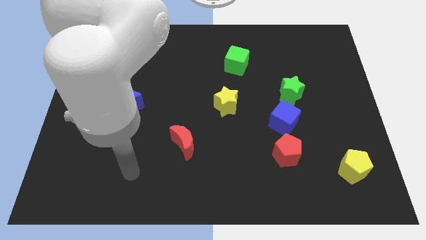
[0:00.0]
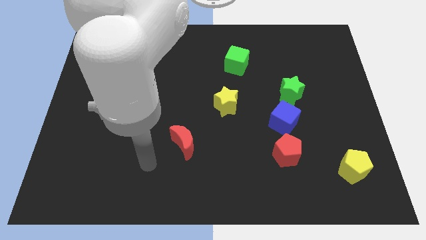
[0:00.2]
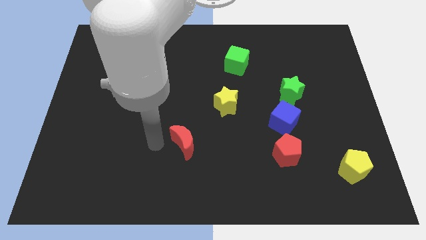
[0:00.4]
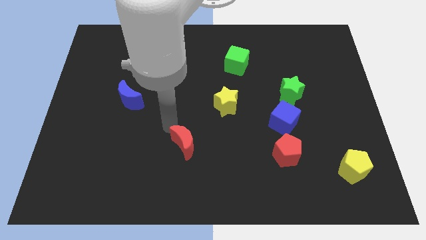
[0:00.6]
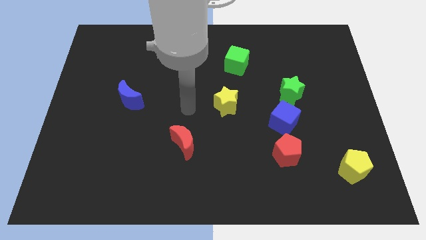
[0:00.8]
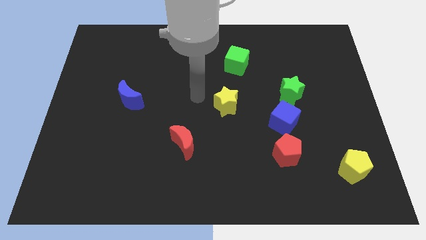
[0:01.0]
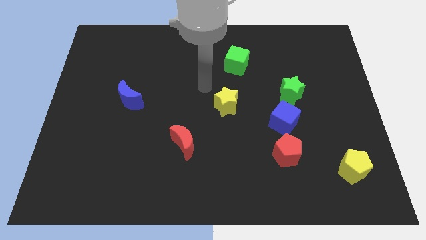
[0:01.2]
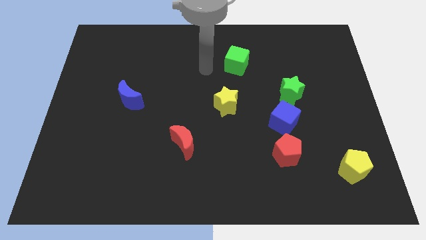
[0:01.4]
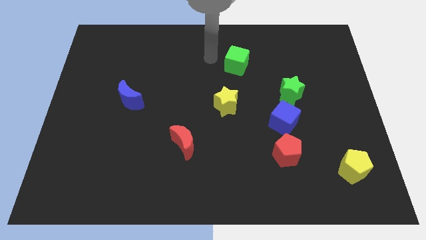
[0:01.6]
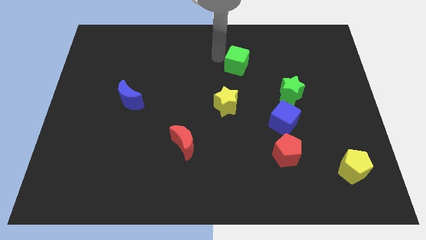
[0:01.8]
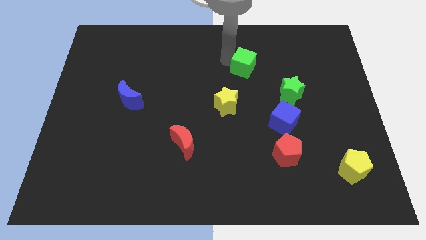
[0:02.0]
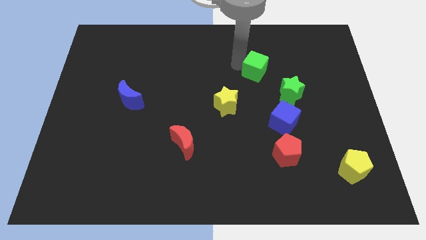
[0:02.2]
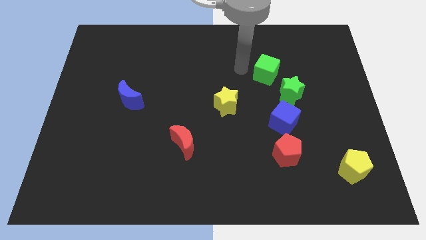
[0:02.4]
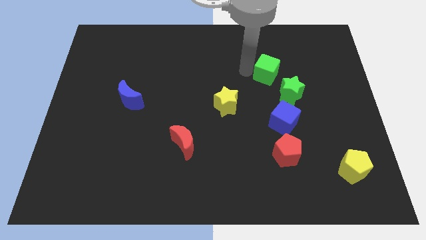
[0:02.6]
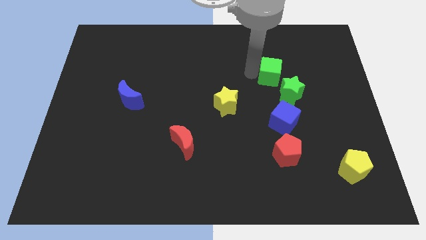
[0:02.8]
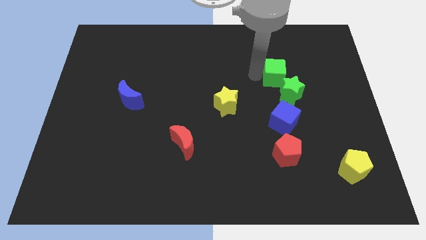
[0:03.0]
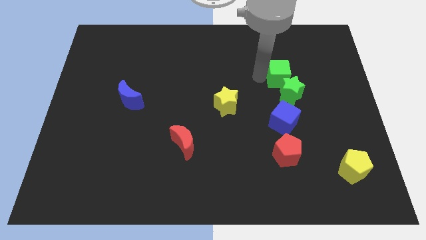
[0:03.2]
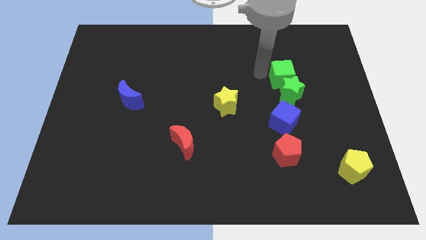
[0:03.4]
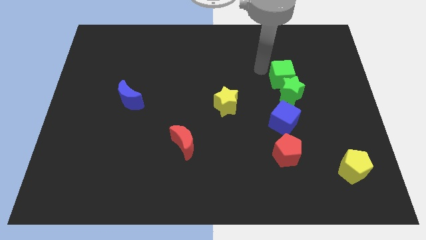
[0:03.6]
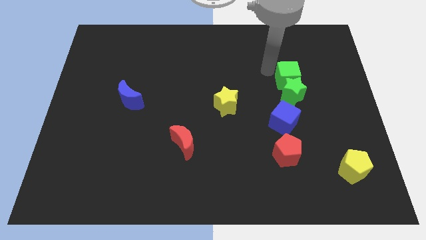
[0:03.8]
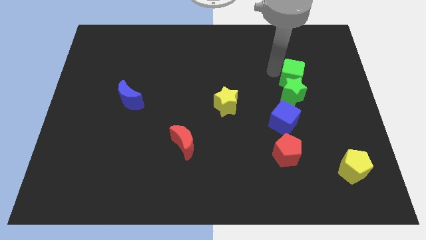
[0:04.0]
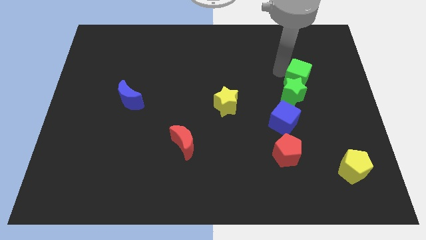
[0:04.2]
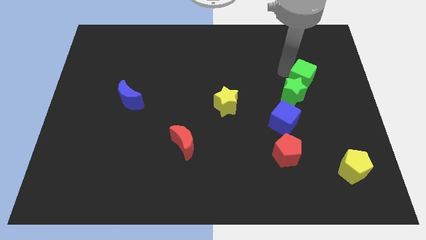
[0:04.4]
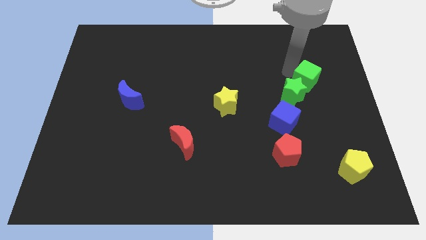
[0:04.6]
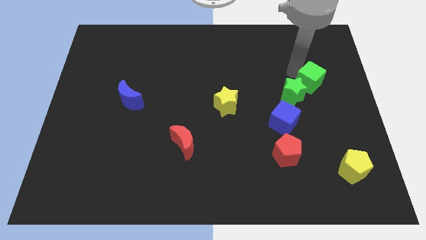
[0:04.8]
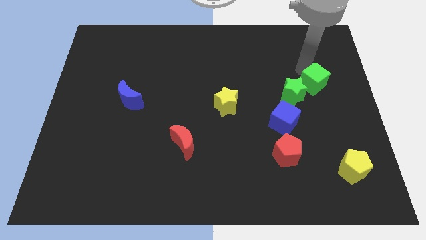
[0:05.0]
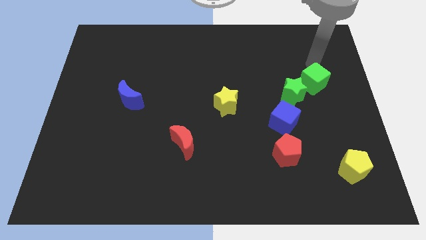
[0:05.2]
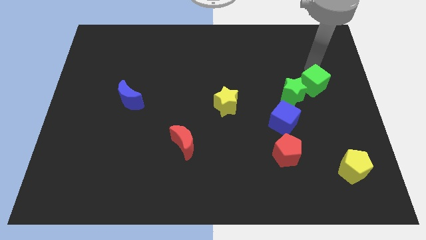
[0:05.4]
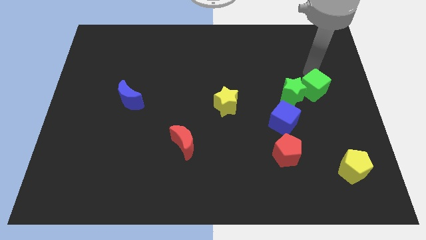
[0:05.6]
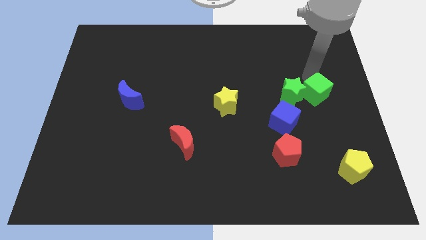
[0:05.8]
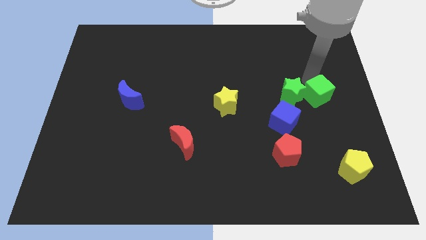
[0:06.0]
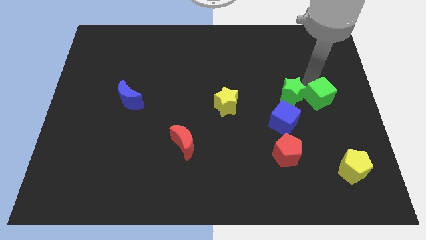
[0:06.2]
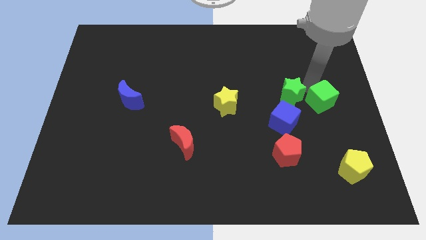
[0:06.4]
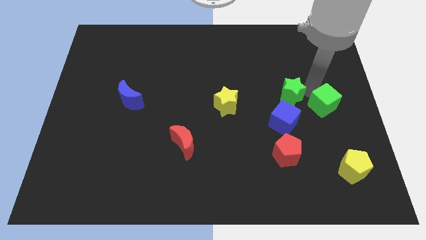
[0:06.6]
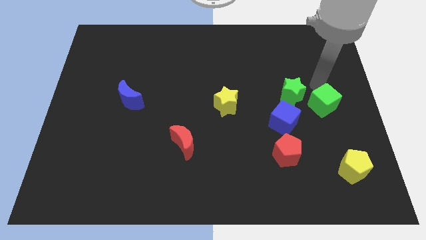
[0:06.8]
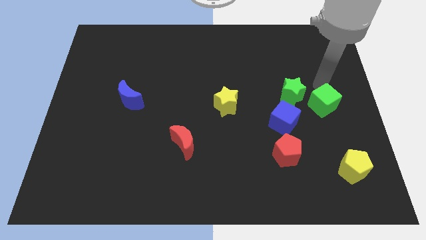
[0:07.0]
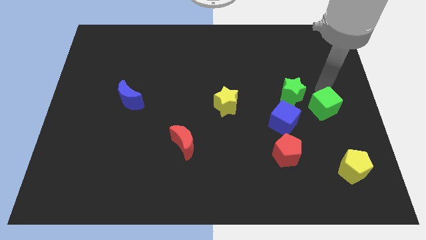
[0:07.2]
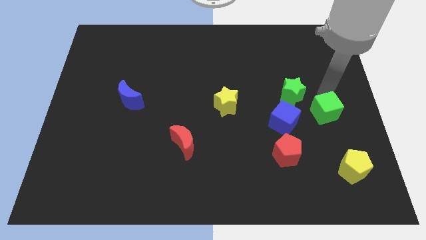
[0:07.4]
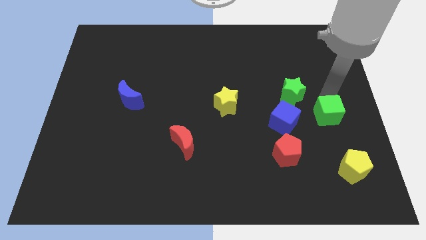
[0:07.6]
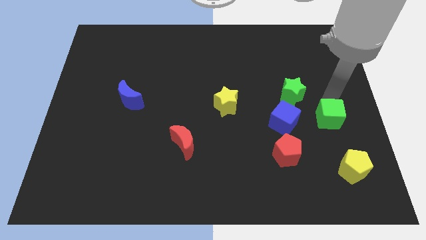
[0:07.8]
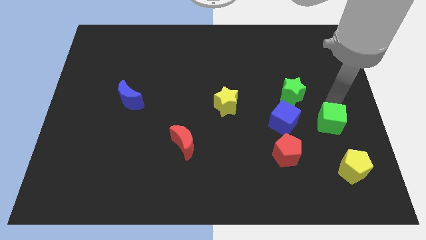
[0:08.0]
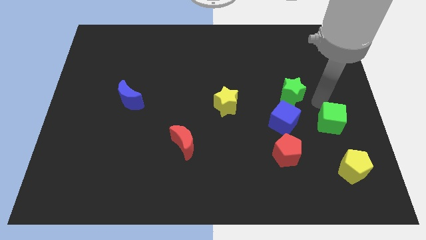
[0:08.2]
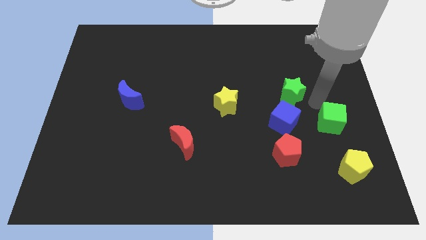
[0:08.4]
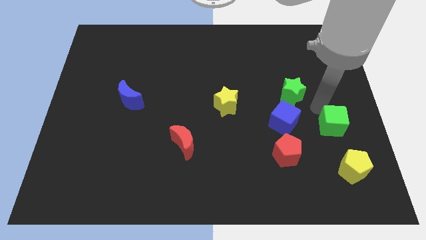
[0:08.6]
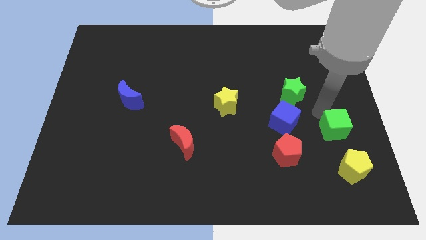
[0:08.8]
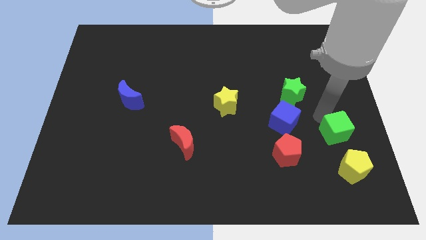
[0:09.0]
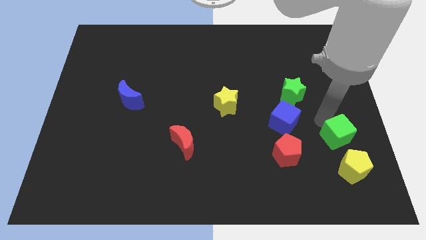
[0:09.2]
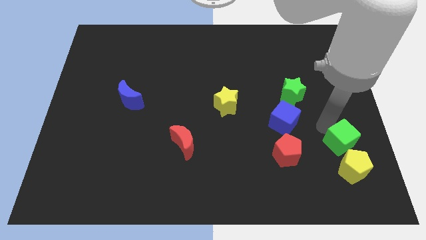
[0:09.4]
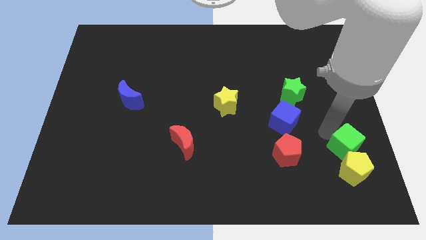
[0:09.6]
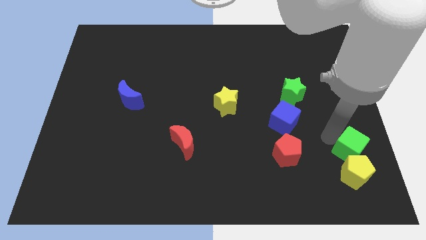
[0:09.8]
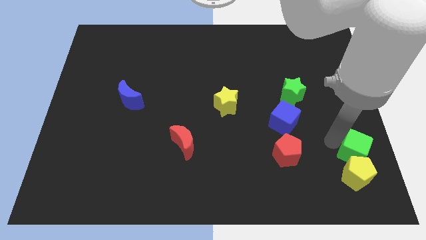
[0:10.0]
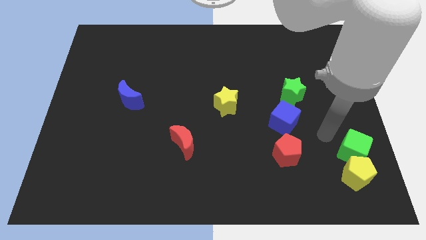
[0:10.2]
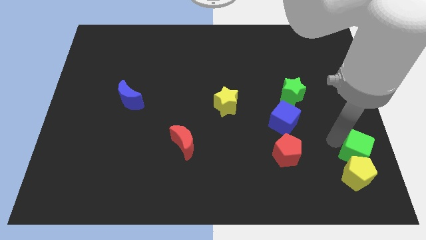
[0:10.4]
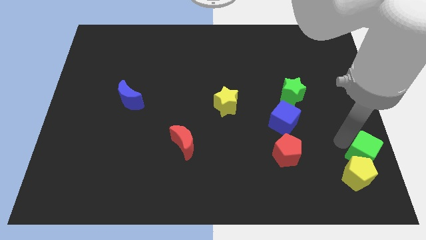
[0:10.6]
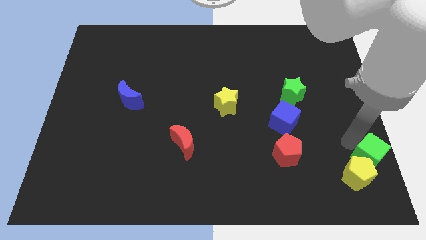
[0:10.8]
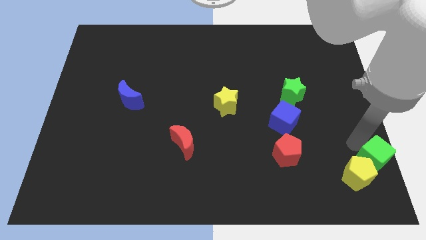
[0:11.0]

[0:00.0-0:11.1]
slide the green cube to the lower right corner

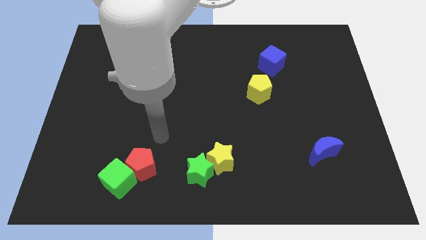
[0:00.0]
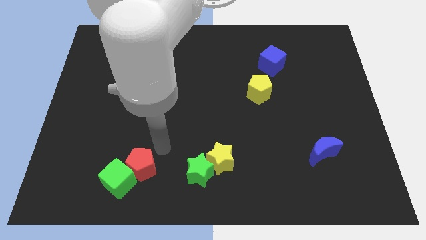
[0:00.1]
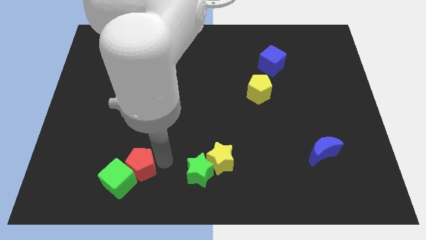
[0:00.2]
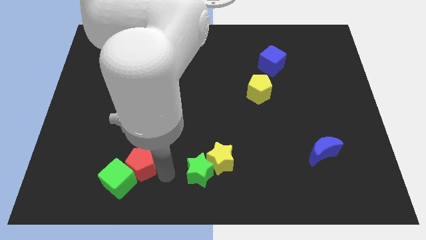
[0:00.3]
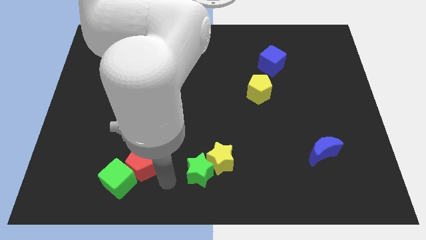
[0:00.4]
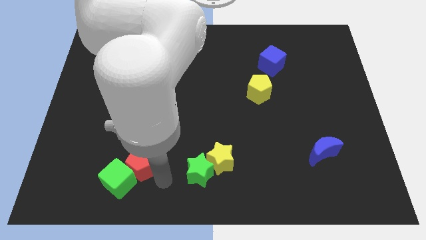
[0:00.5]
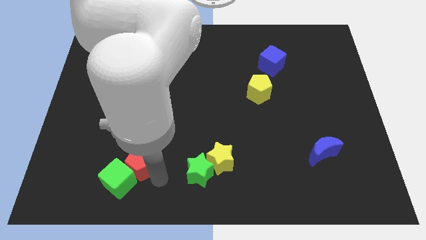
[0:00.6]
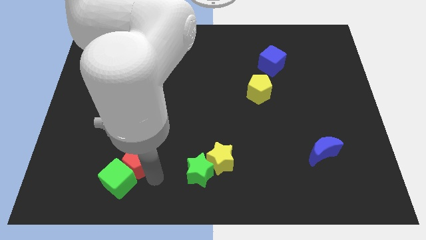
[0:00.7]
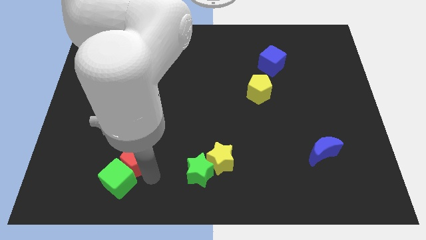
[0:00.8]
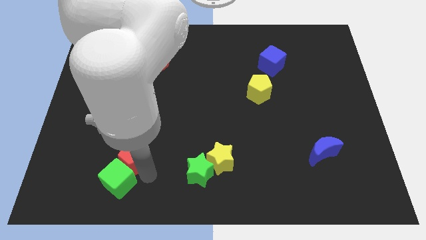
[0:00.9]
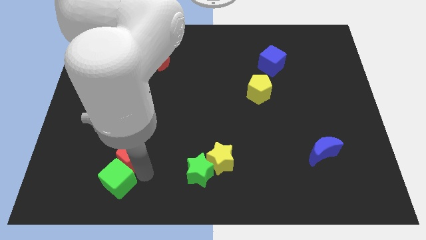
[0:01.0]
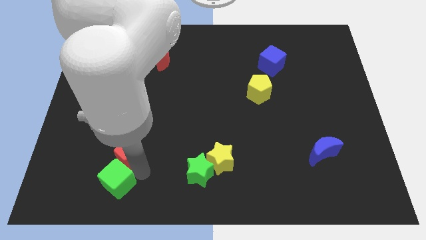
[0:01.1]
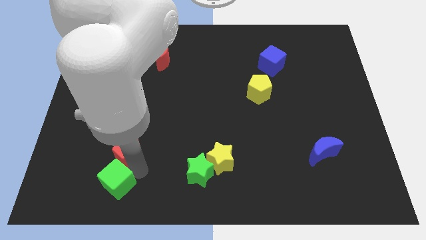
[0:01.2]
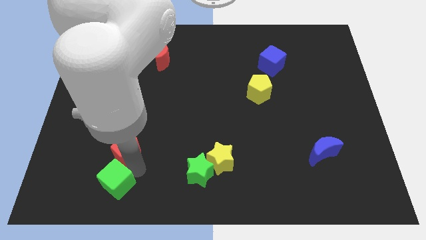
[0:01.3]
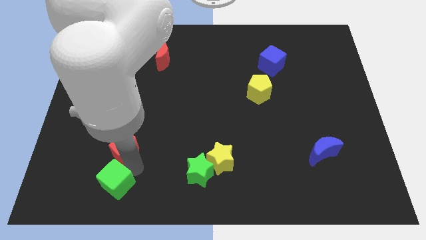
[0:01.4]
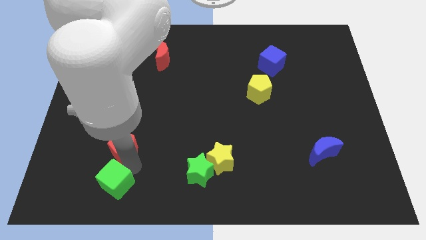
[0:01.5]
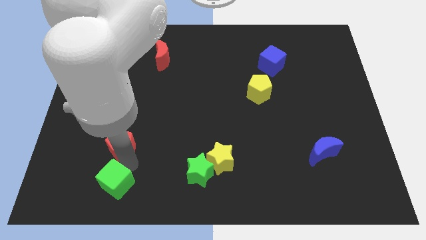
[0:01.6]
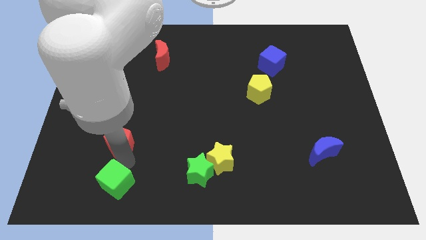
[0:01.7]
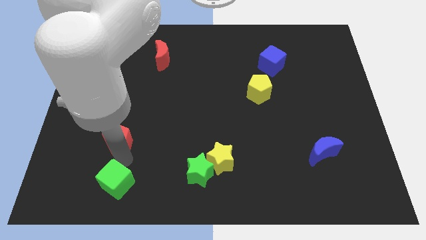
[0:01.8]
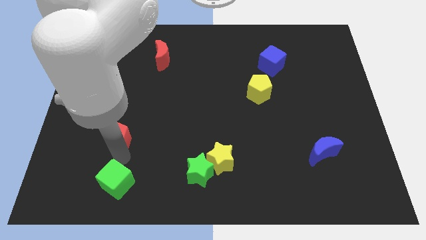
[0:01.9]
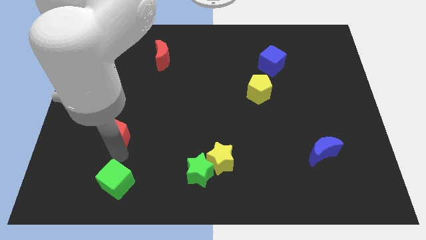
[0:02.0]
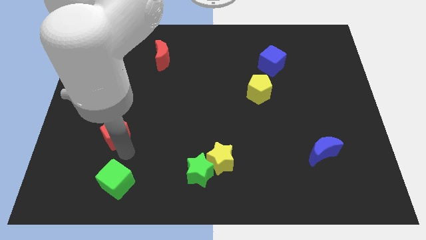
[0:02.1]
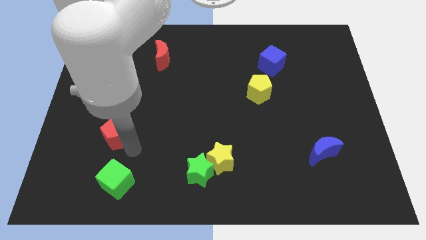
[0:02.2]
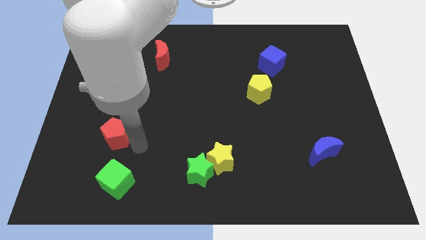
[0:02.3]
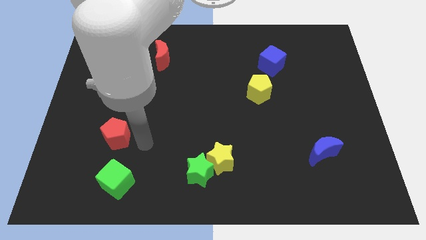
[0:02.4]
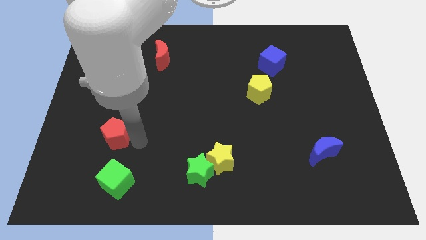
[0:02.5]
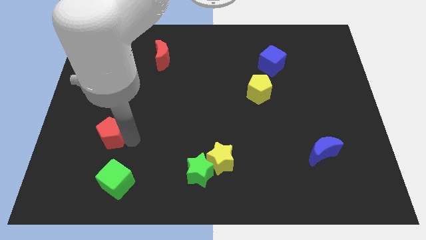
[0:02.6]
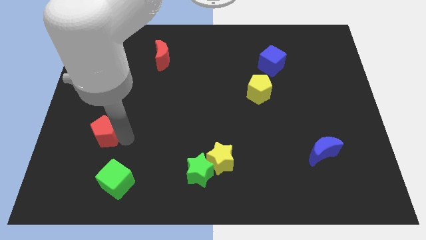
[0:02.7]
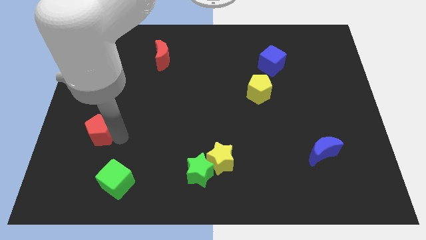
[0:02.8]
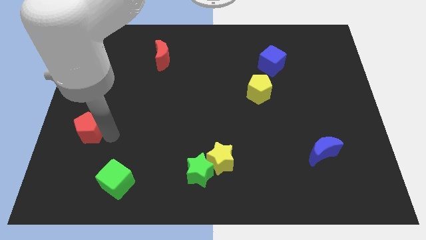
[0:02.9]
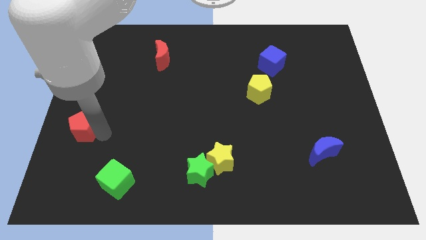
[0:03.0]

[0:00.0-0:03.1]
push the red pentagon to the center left
